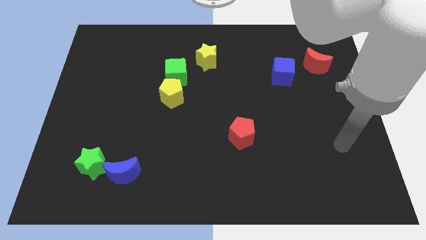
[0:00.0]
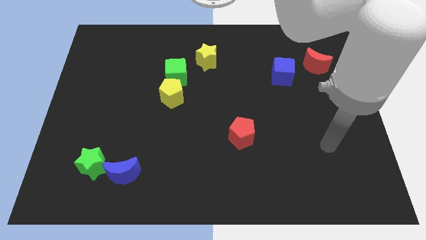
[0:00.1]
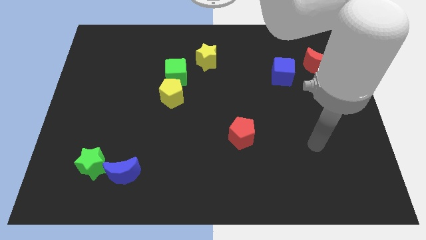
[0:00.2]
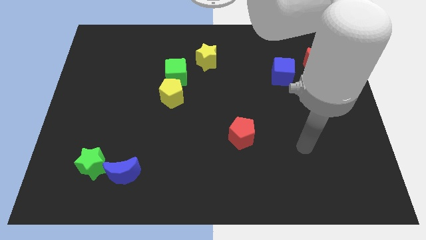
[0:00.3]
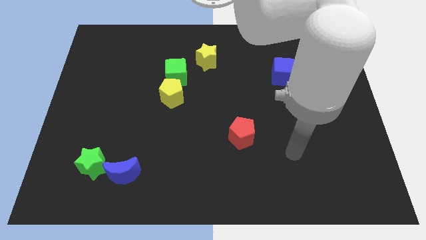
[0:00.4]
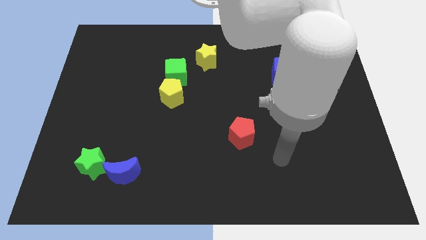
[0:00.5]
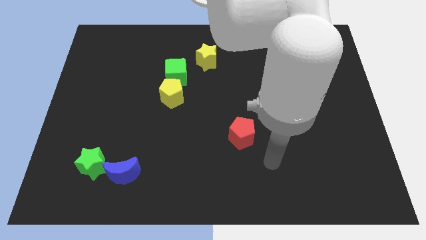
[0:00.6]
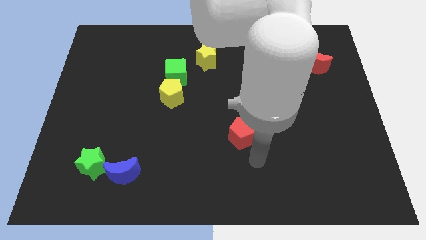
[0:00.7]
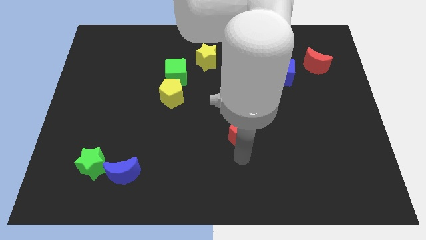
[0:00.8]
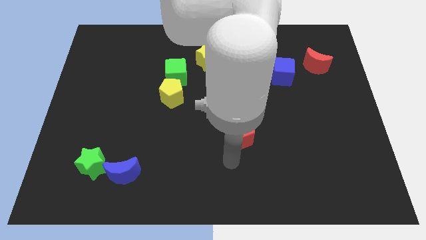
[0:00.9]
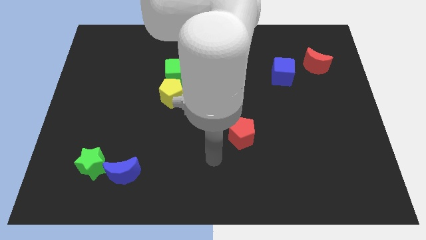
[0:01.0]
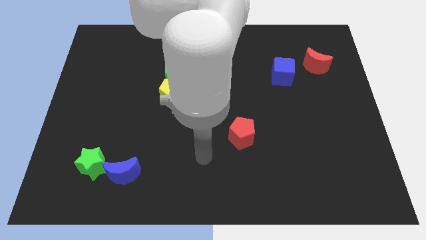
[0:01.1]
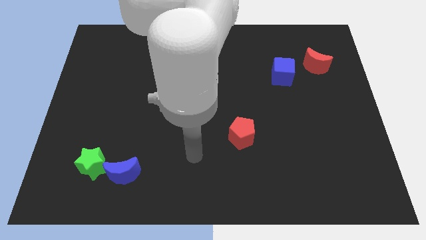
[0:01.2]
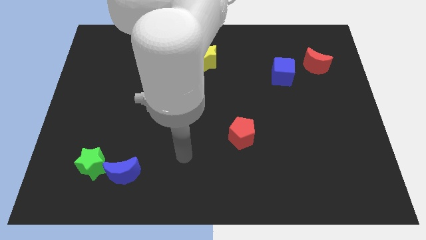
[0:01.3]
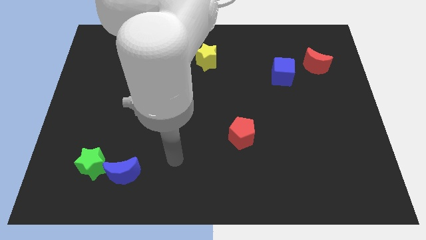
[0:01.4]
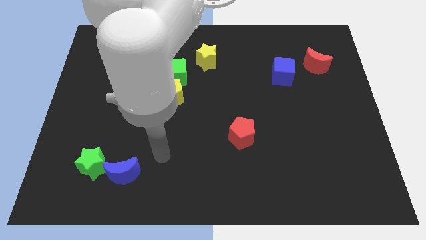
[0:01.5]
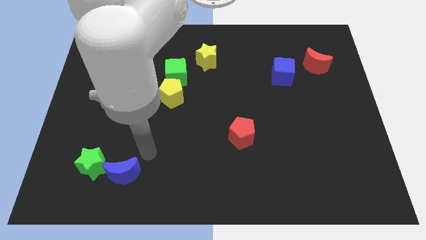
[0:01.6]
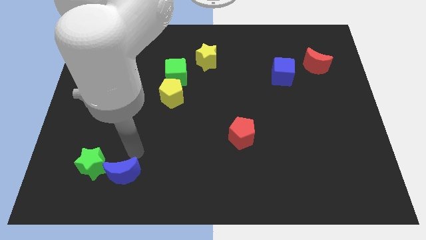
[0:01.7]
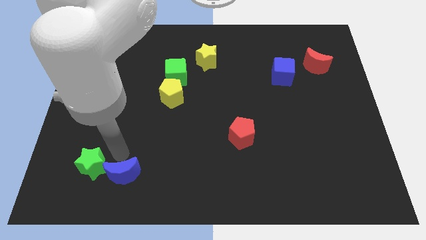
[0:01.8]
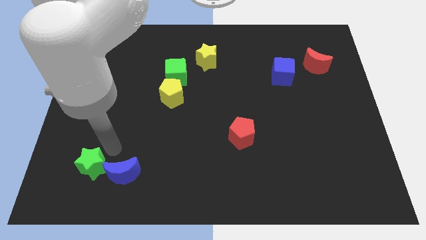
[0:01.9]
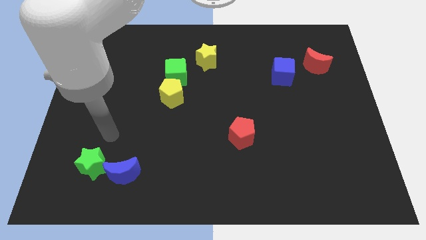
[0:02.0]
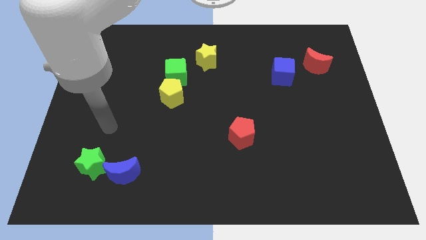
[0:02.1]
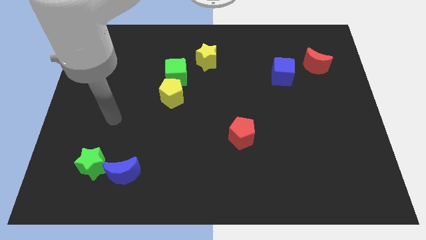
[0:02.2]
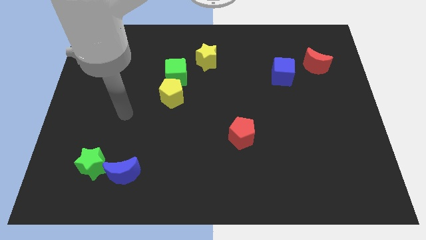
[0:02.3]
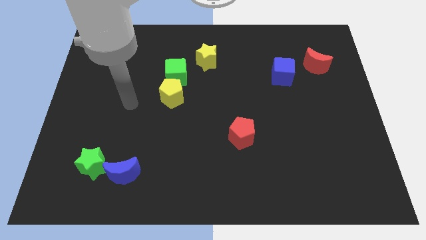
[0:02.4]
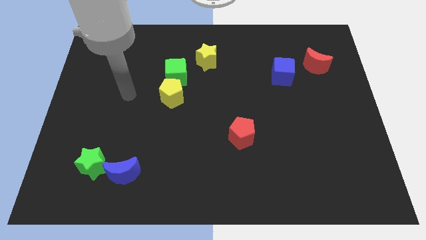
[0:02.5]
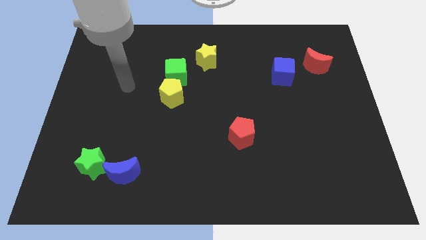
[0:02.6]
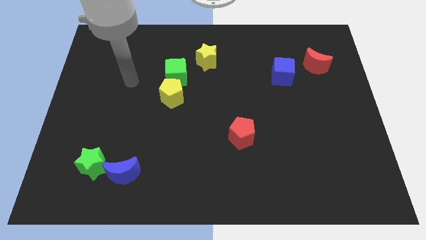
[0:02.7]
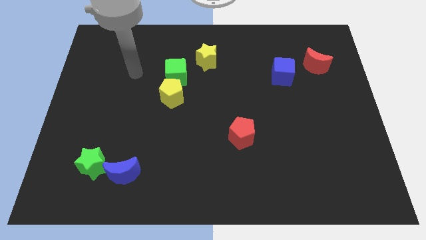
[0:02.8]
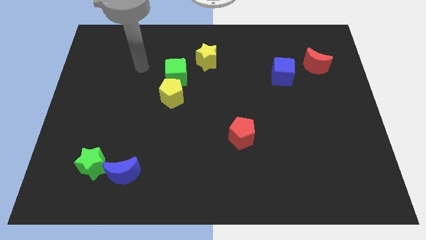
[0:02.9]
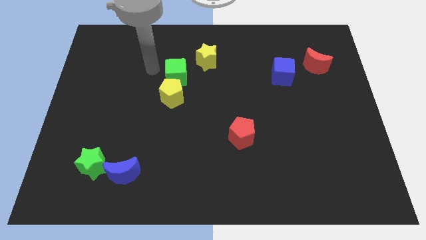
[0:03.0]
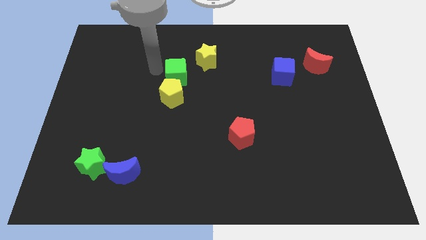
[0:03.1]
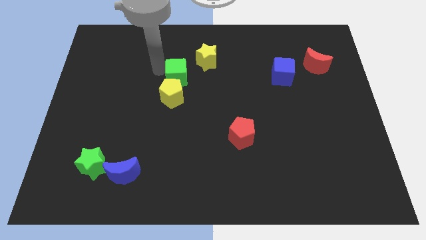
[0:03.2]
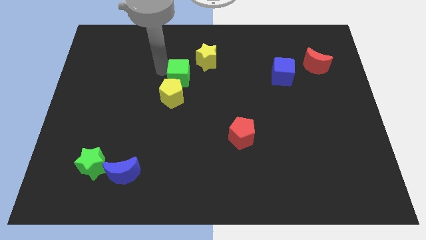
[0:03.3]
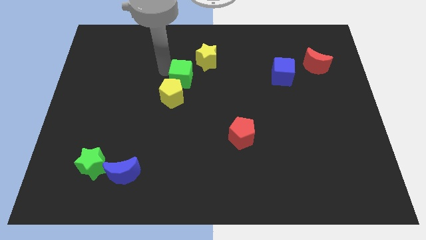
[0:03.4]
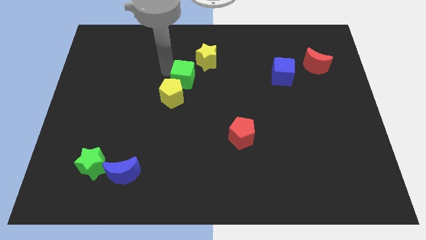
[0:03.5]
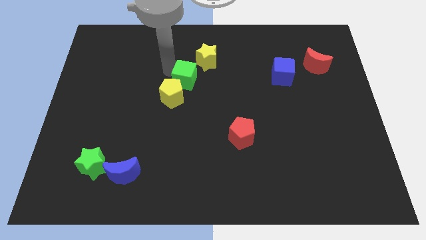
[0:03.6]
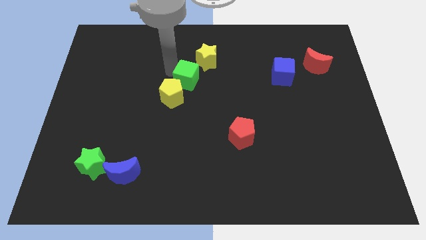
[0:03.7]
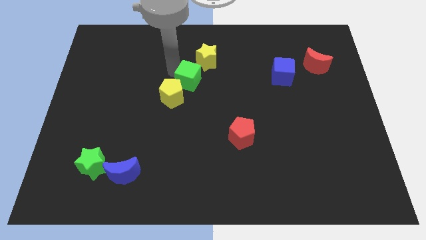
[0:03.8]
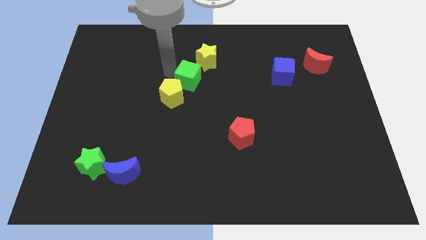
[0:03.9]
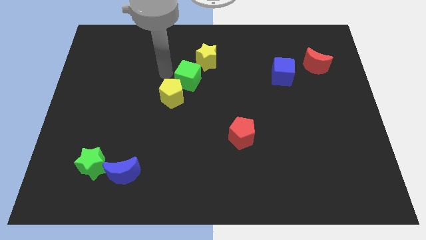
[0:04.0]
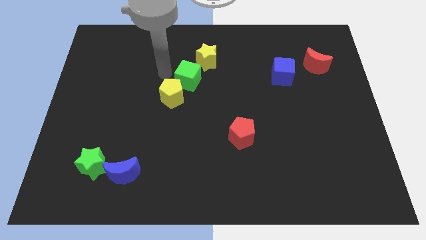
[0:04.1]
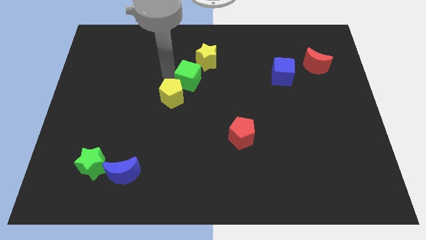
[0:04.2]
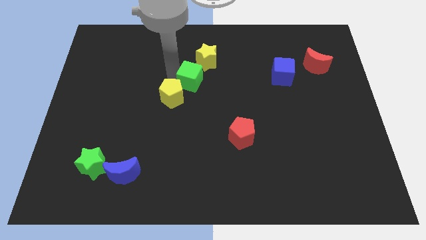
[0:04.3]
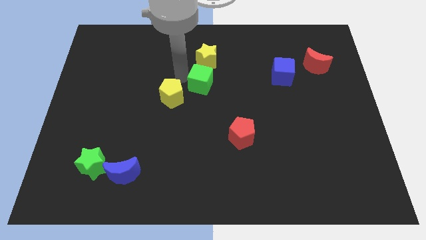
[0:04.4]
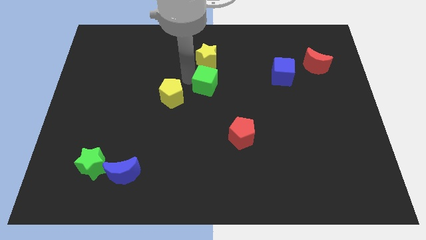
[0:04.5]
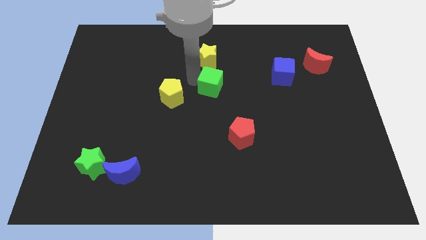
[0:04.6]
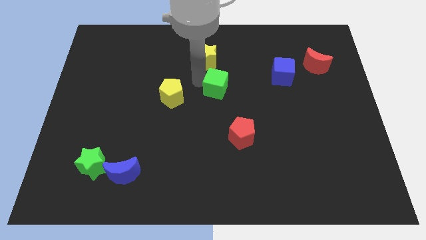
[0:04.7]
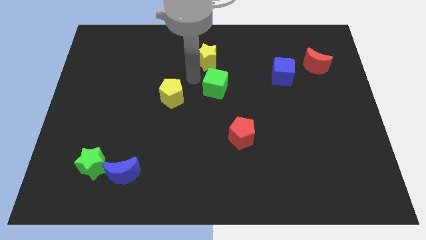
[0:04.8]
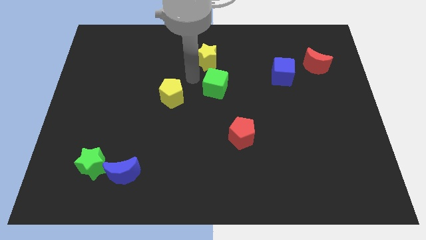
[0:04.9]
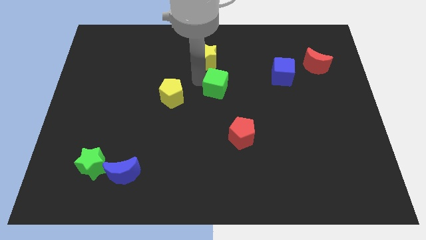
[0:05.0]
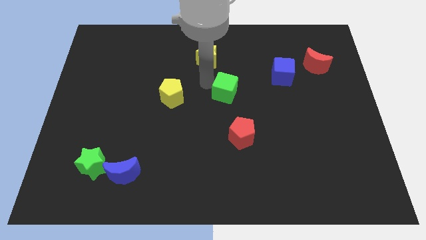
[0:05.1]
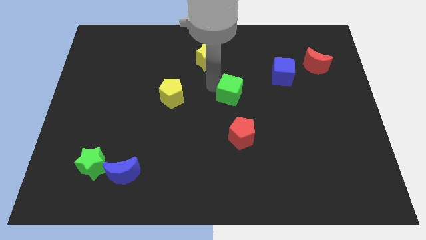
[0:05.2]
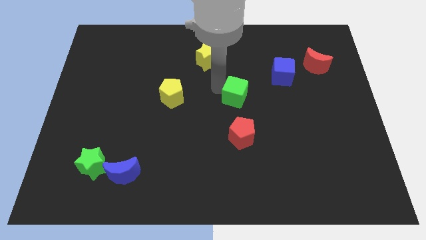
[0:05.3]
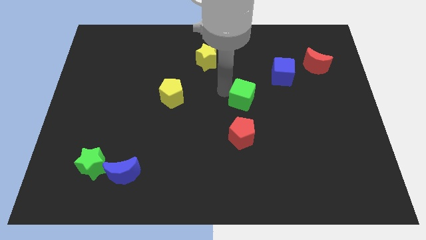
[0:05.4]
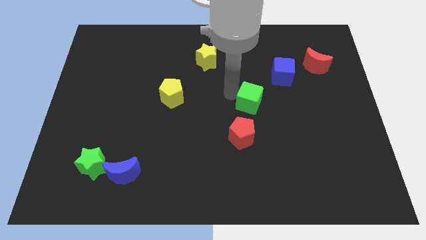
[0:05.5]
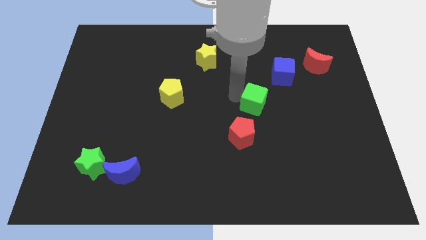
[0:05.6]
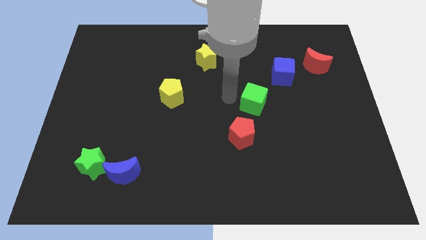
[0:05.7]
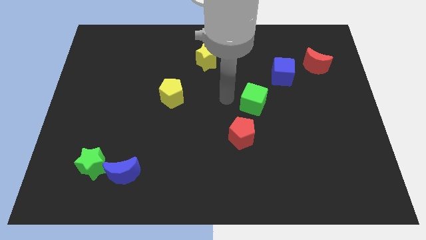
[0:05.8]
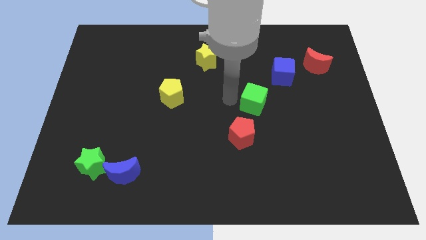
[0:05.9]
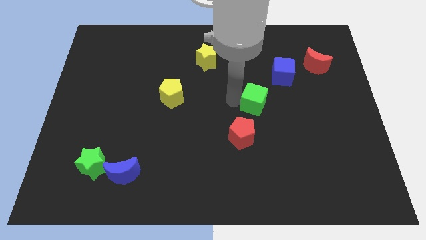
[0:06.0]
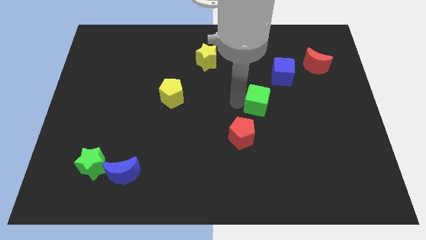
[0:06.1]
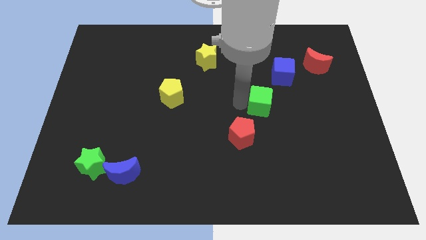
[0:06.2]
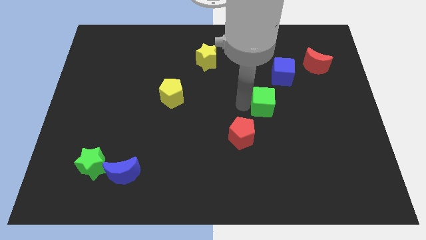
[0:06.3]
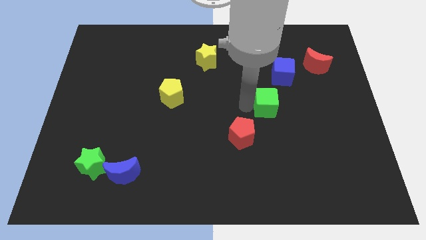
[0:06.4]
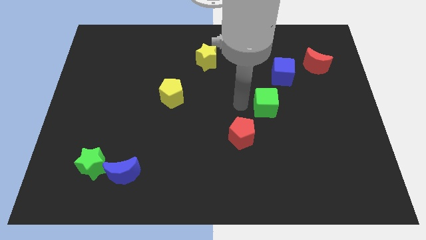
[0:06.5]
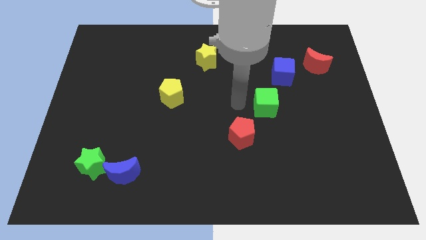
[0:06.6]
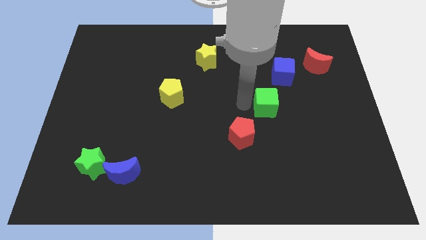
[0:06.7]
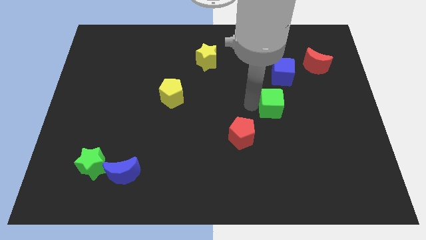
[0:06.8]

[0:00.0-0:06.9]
put the green cube to the bottom of the blue cube
